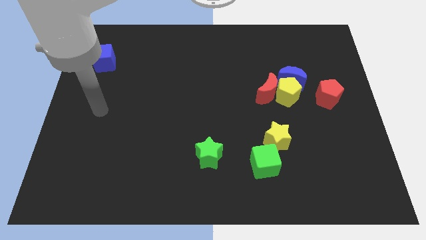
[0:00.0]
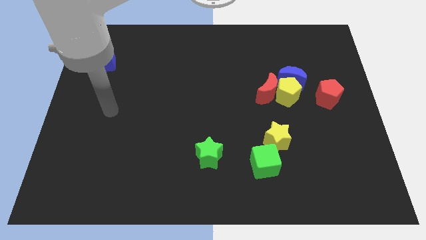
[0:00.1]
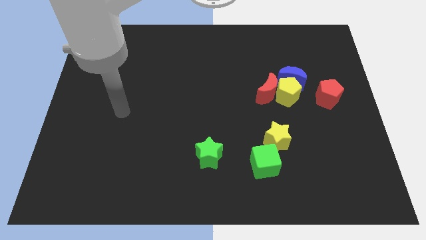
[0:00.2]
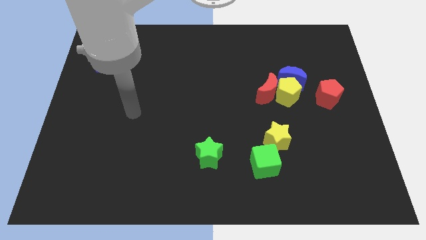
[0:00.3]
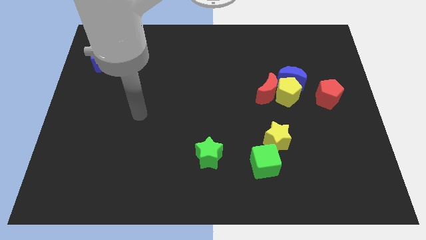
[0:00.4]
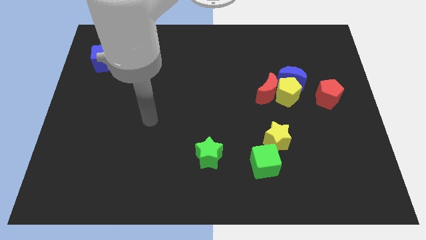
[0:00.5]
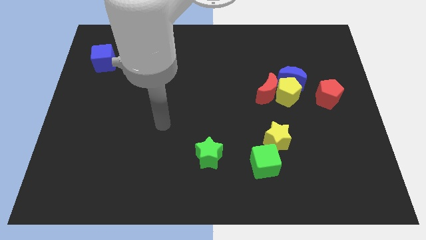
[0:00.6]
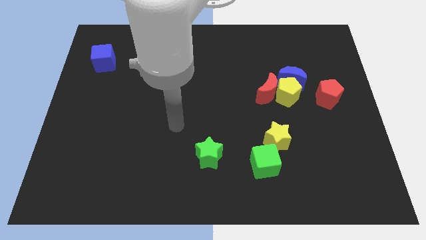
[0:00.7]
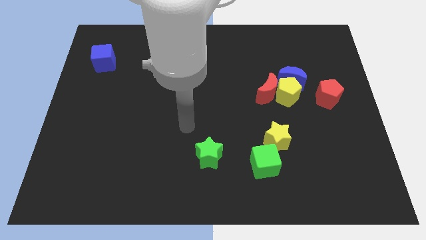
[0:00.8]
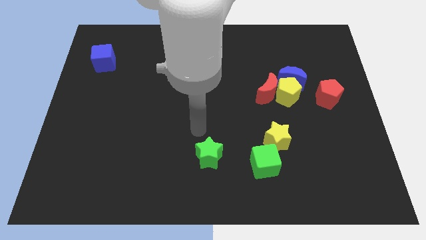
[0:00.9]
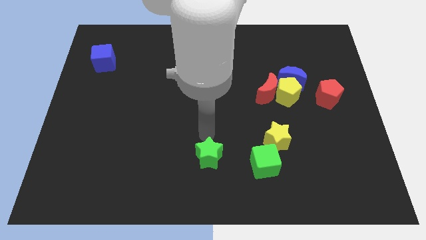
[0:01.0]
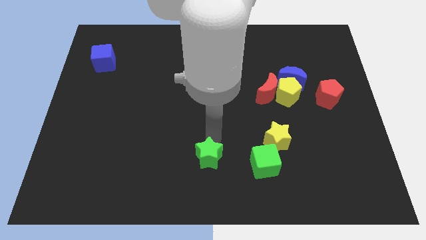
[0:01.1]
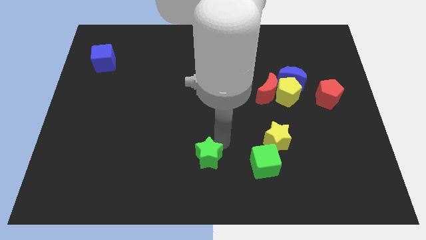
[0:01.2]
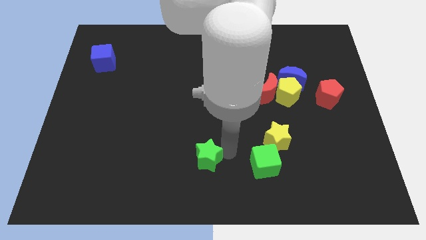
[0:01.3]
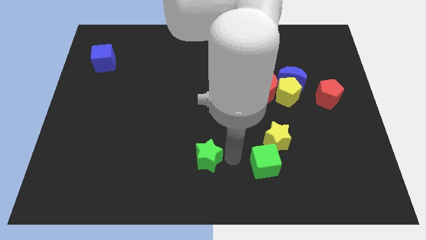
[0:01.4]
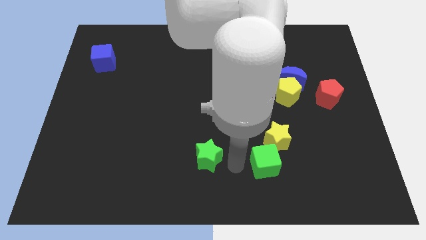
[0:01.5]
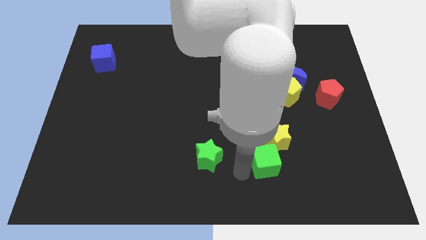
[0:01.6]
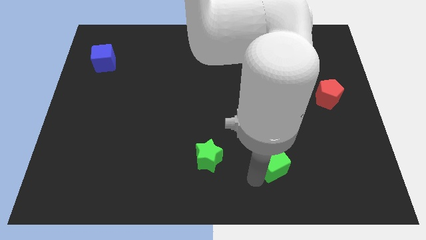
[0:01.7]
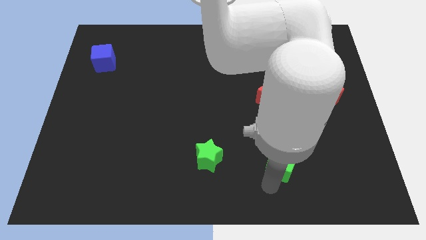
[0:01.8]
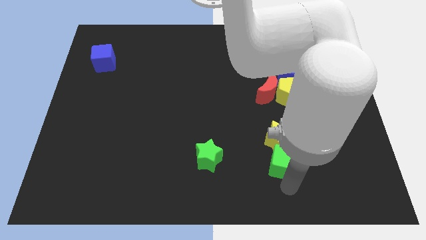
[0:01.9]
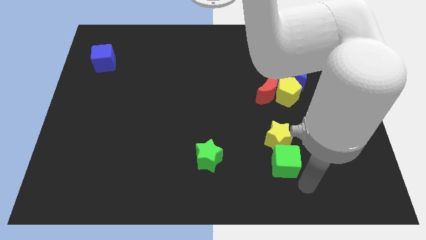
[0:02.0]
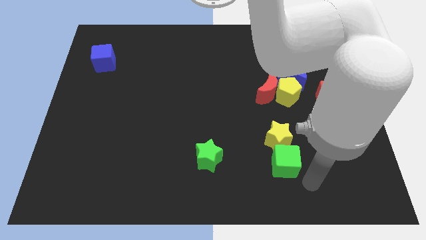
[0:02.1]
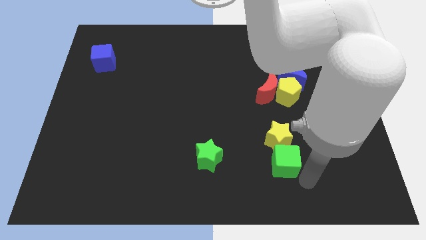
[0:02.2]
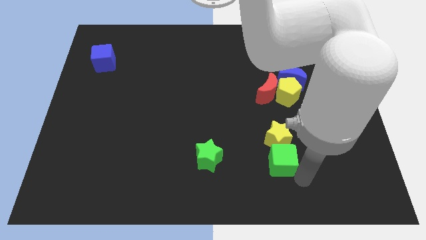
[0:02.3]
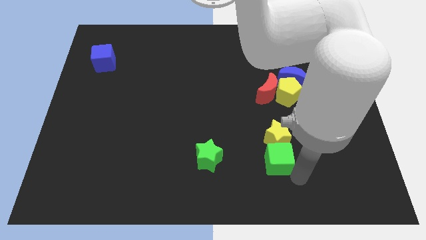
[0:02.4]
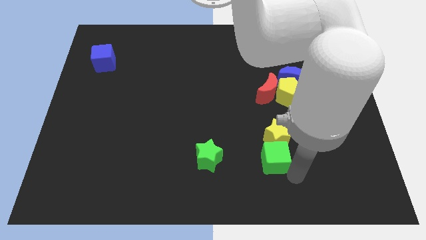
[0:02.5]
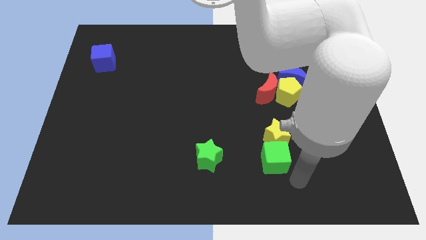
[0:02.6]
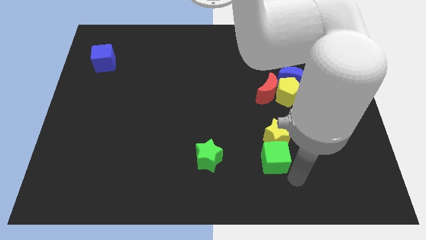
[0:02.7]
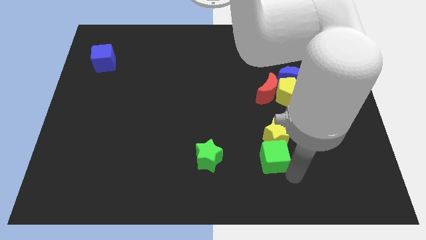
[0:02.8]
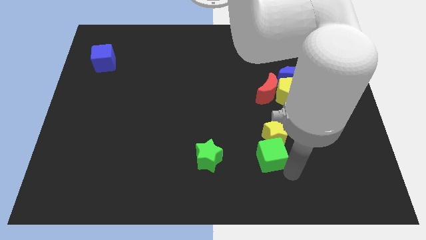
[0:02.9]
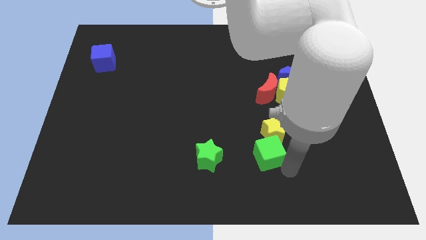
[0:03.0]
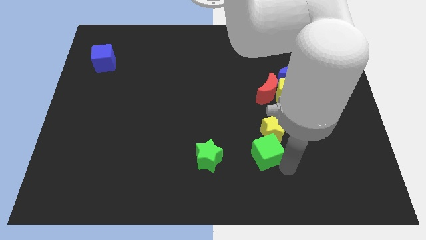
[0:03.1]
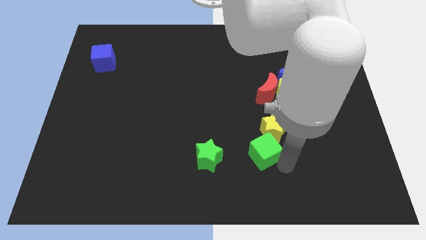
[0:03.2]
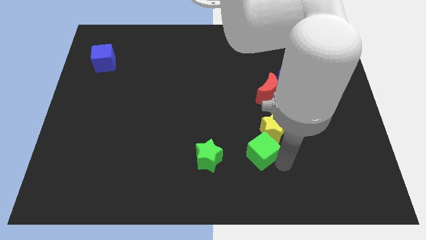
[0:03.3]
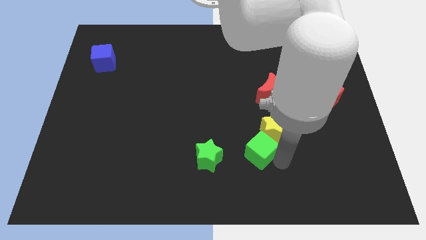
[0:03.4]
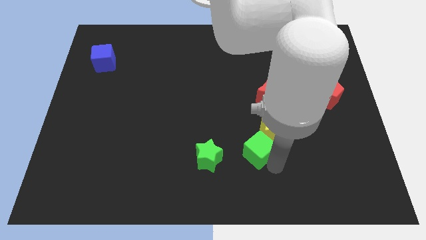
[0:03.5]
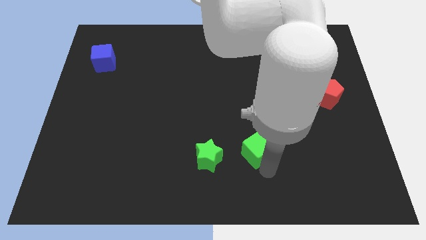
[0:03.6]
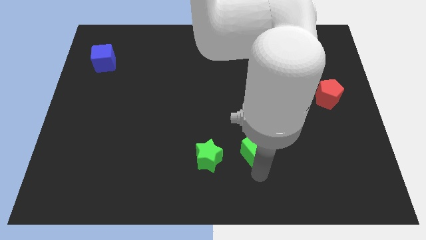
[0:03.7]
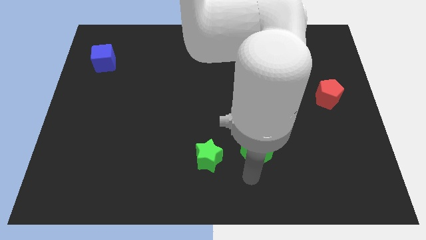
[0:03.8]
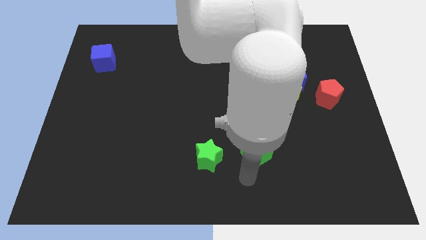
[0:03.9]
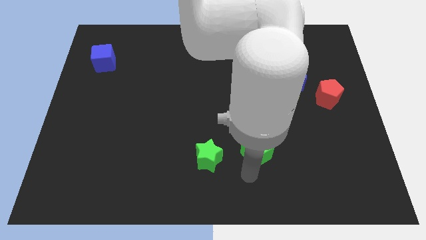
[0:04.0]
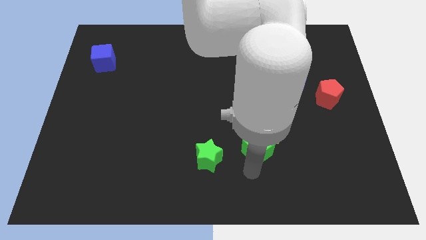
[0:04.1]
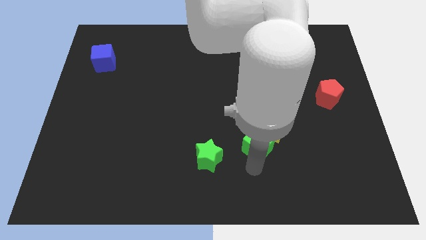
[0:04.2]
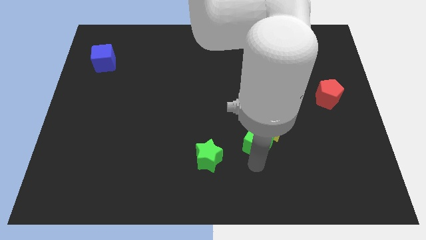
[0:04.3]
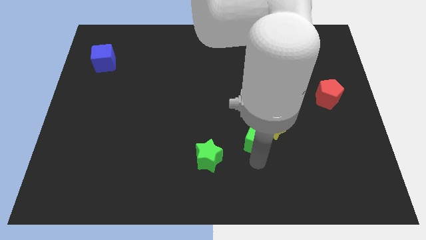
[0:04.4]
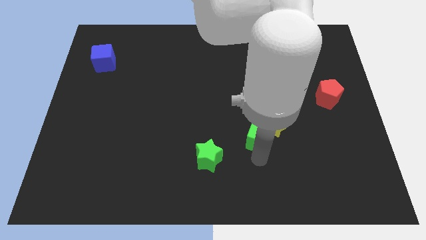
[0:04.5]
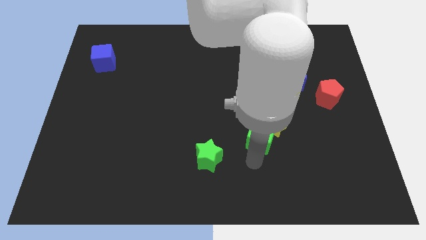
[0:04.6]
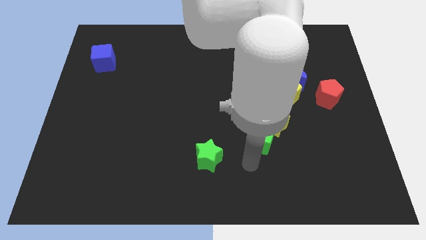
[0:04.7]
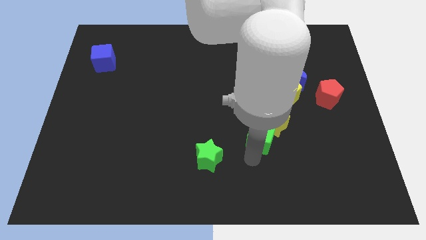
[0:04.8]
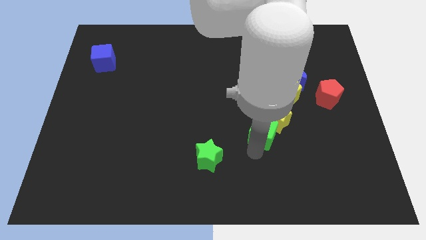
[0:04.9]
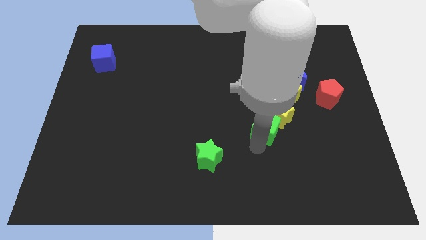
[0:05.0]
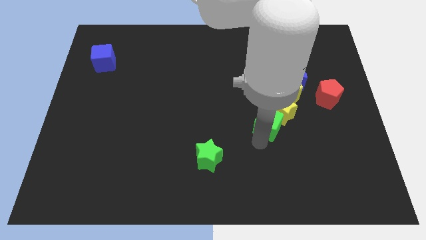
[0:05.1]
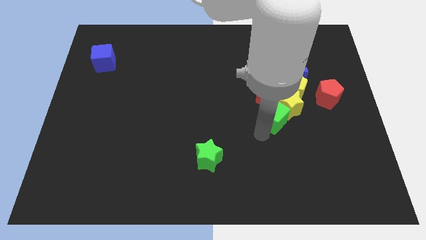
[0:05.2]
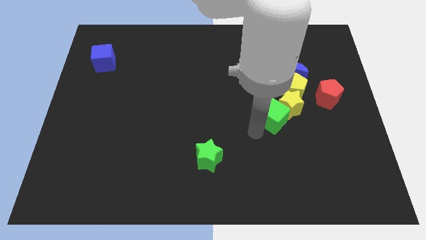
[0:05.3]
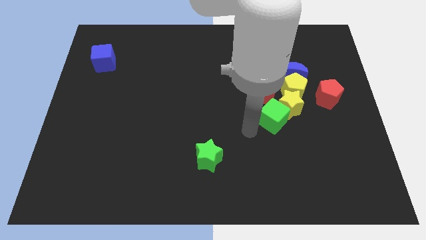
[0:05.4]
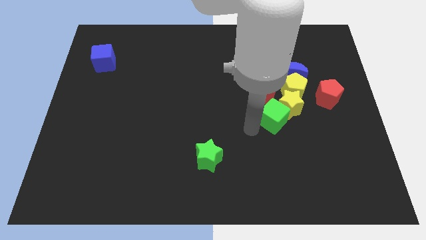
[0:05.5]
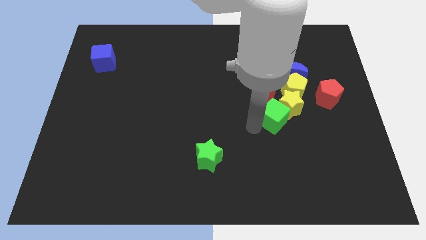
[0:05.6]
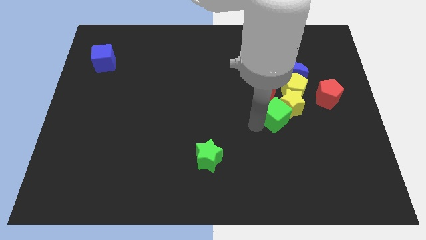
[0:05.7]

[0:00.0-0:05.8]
put the green cube to the bottom right of the red moon

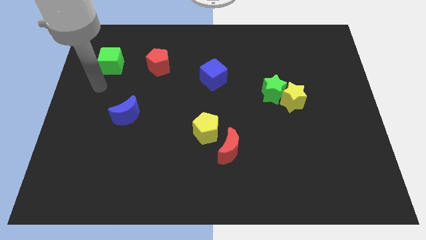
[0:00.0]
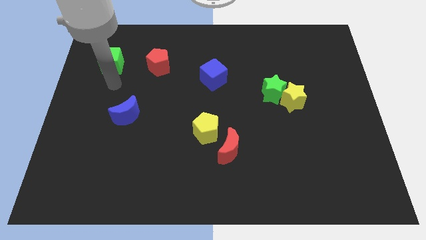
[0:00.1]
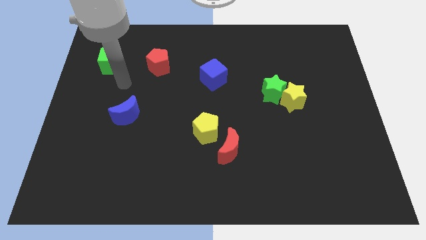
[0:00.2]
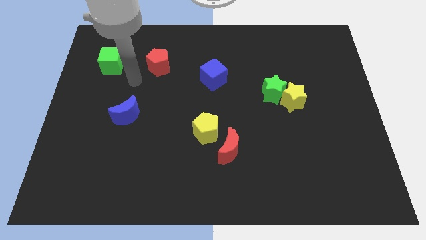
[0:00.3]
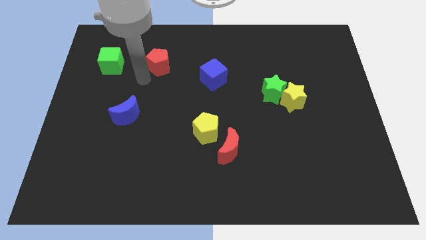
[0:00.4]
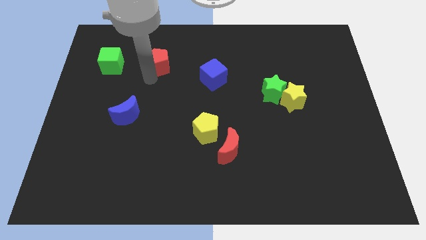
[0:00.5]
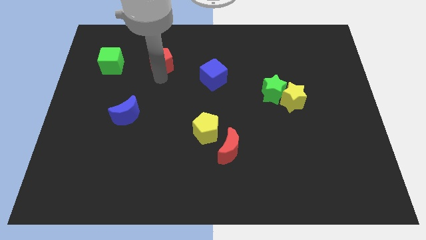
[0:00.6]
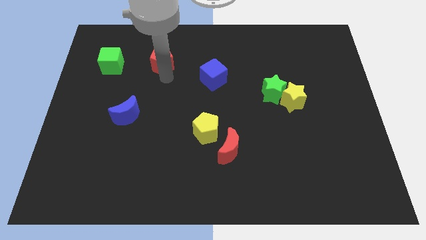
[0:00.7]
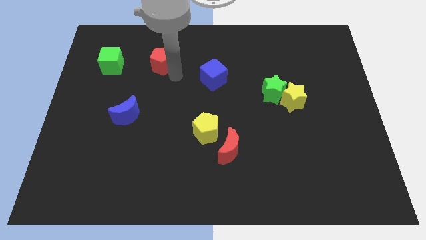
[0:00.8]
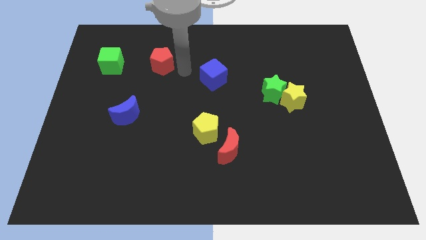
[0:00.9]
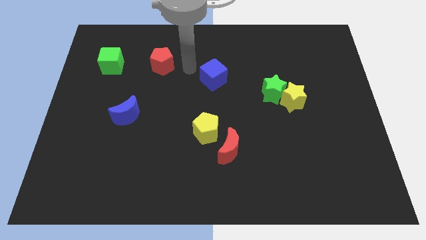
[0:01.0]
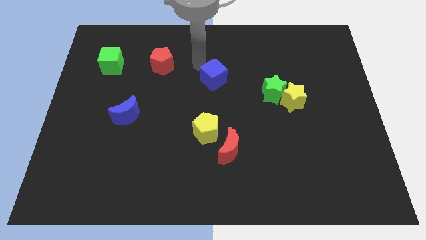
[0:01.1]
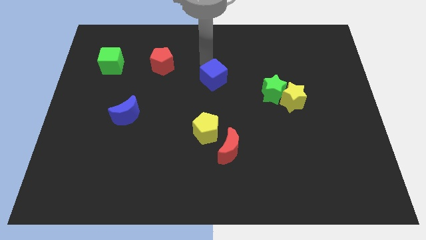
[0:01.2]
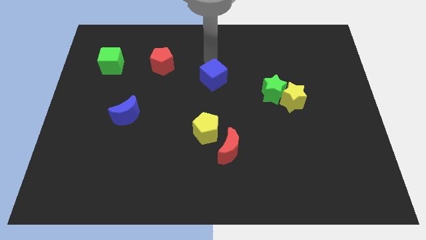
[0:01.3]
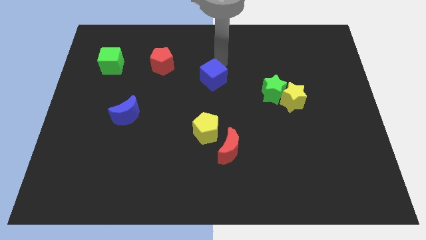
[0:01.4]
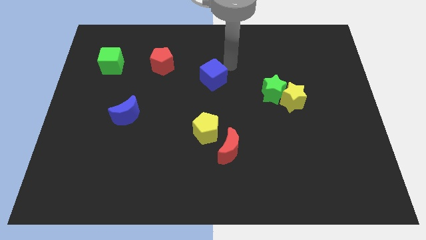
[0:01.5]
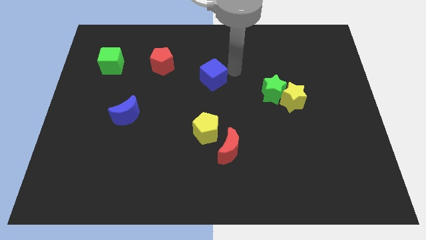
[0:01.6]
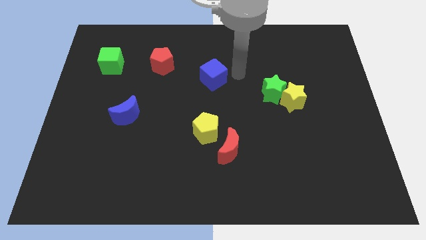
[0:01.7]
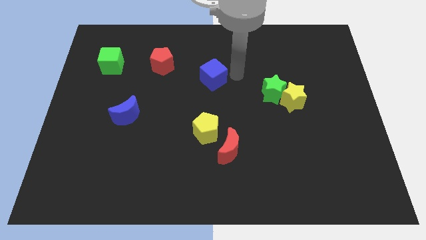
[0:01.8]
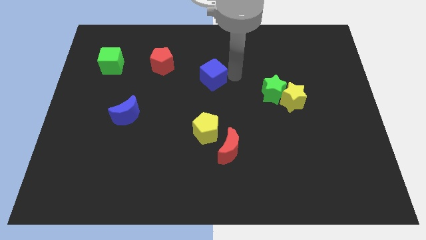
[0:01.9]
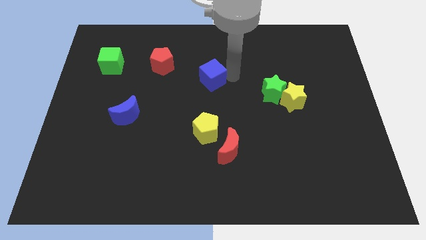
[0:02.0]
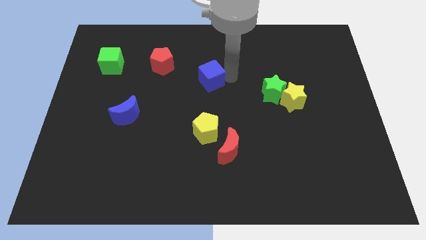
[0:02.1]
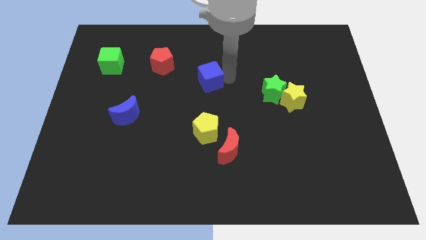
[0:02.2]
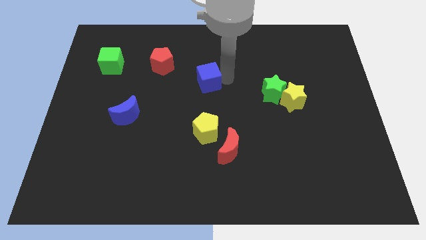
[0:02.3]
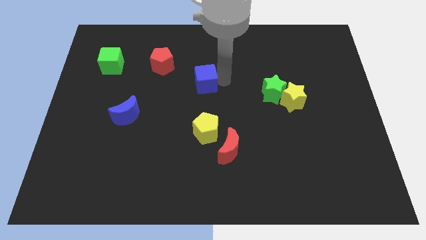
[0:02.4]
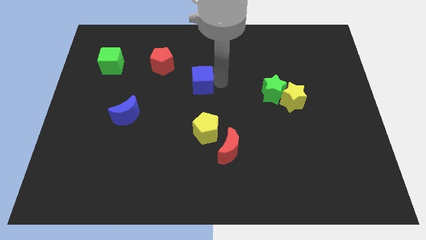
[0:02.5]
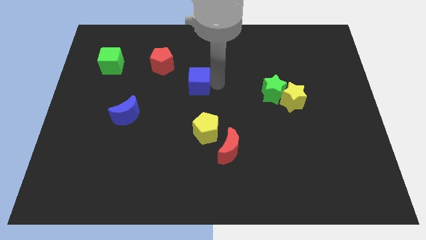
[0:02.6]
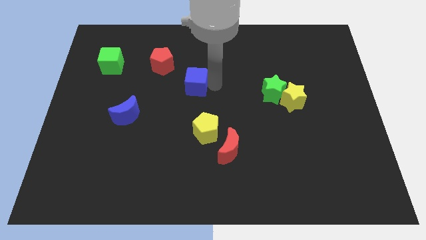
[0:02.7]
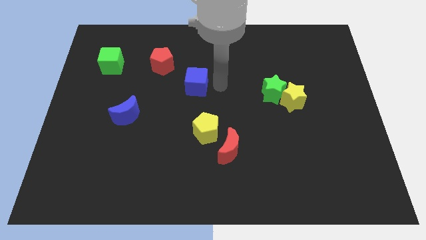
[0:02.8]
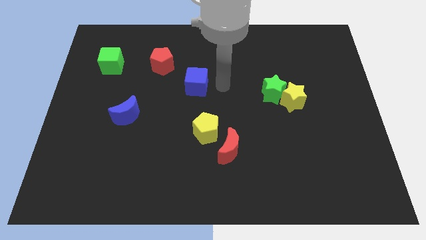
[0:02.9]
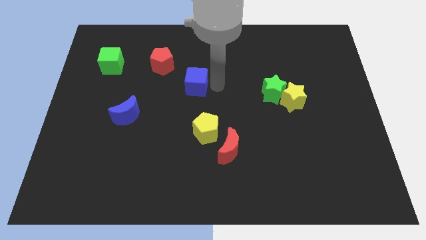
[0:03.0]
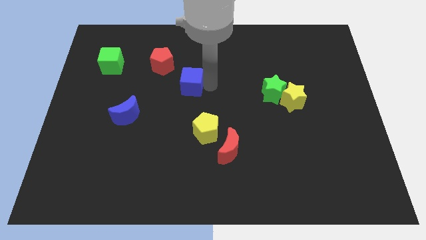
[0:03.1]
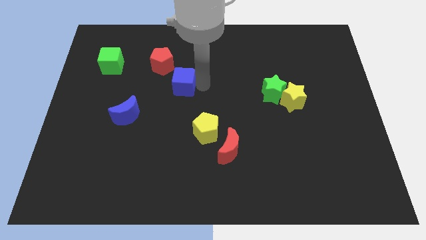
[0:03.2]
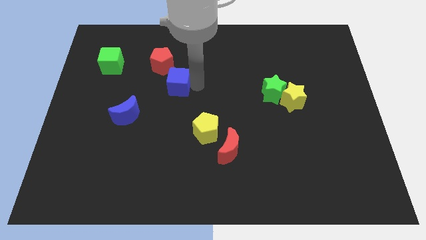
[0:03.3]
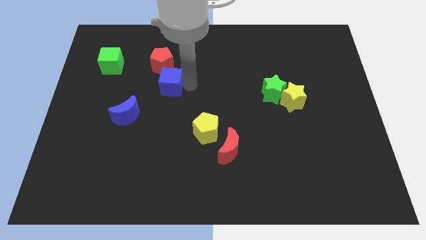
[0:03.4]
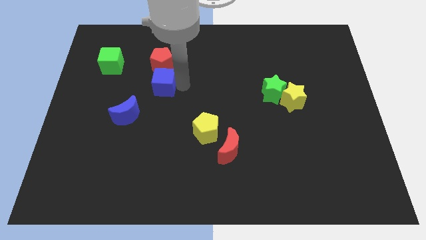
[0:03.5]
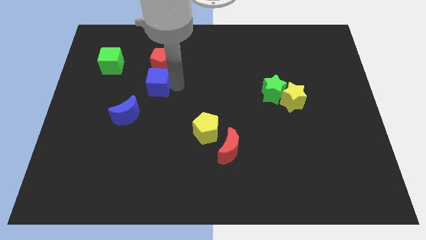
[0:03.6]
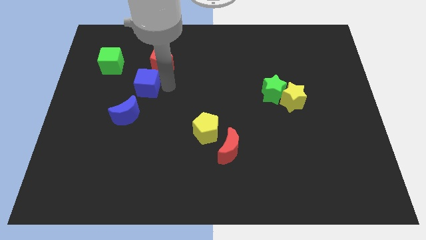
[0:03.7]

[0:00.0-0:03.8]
push the blue cube diagonally down and to the right of the green cube
